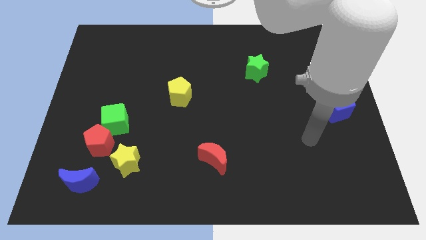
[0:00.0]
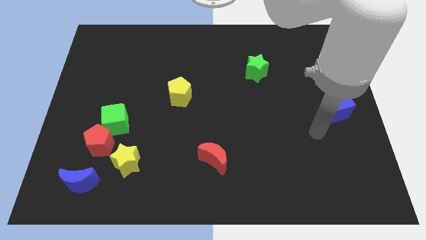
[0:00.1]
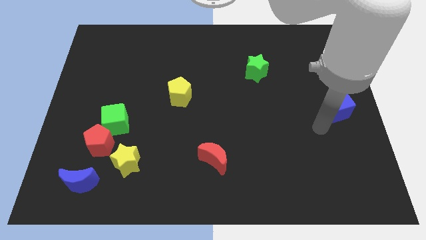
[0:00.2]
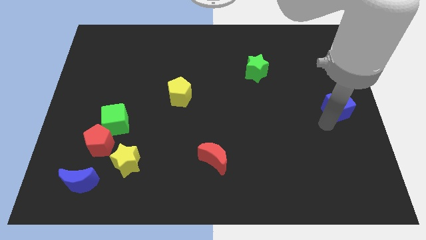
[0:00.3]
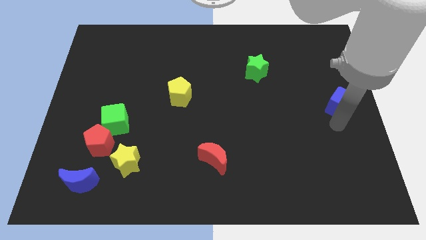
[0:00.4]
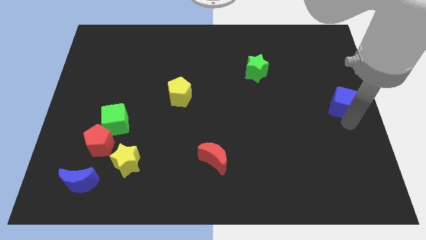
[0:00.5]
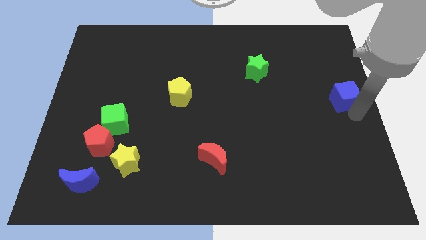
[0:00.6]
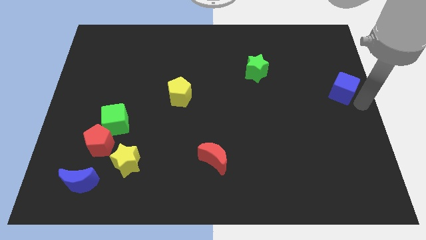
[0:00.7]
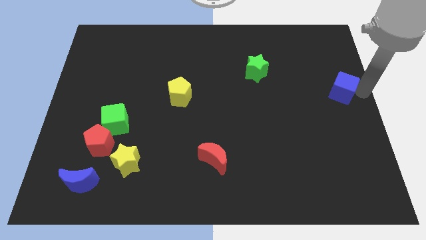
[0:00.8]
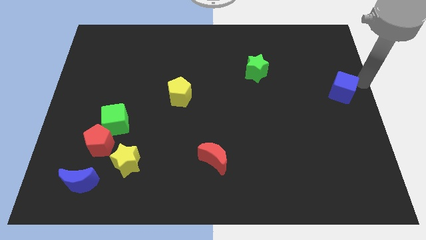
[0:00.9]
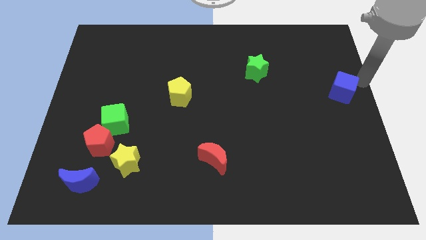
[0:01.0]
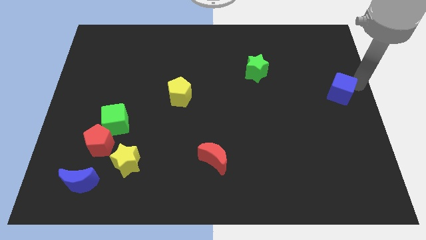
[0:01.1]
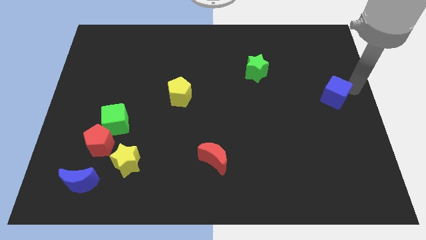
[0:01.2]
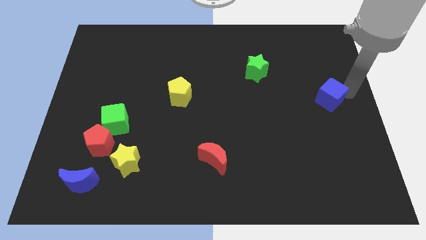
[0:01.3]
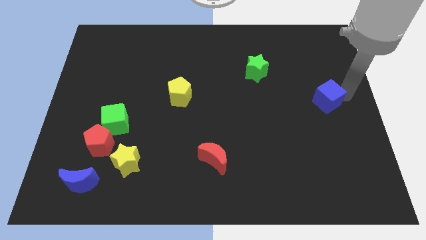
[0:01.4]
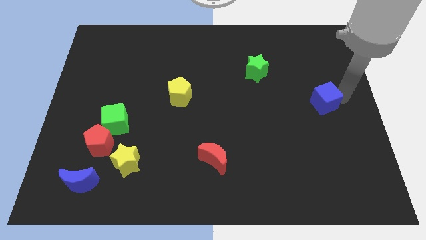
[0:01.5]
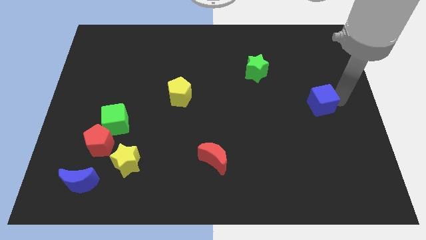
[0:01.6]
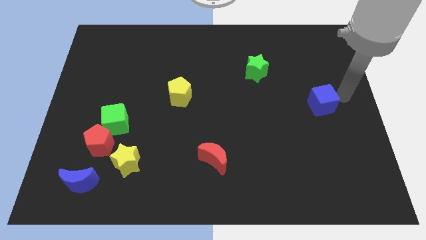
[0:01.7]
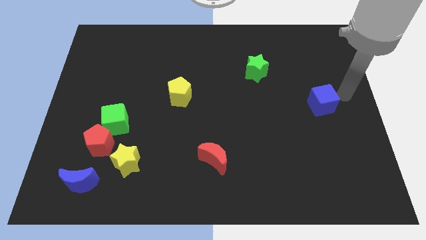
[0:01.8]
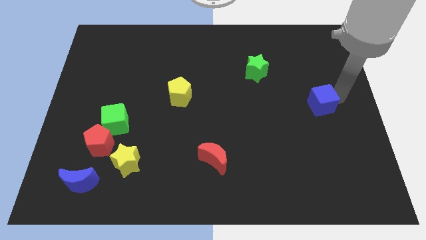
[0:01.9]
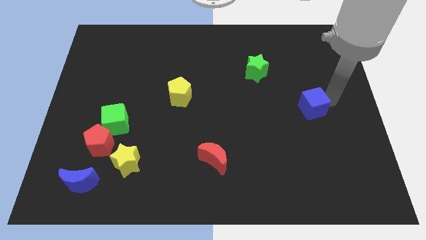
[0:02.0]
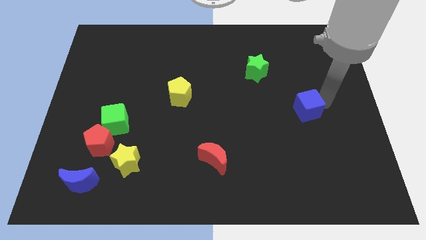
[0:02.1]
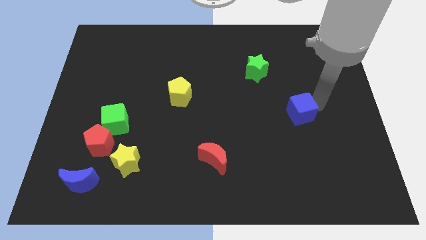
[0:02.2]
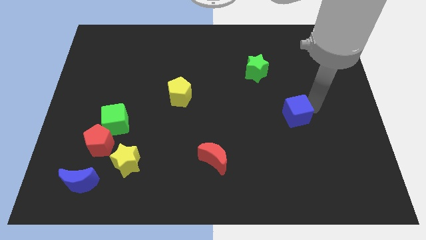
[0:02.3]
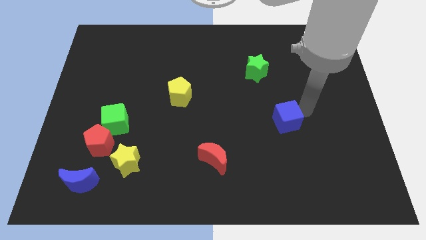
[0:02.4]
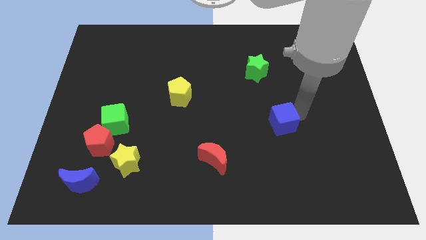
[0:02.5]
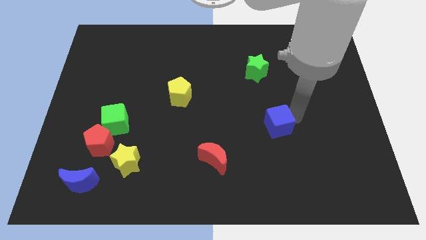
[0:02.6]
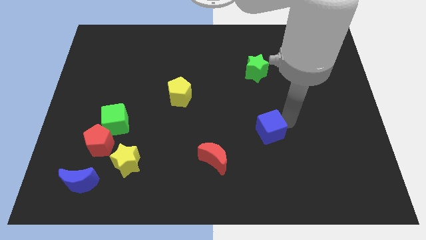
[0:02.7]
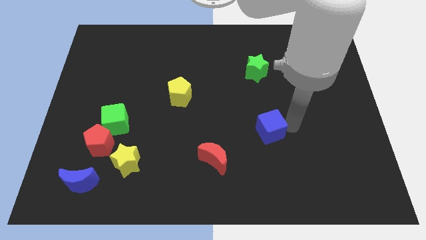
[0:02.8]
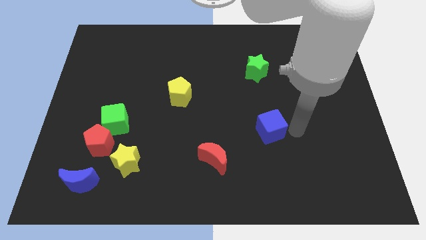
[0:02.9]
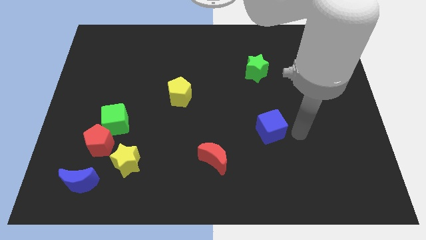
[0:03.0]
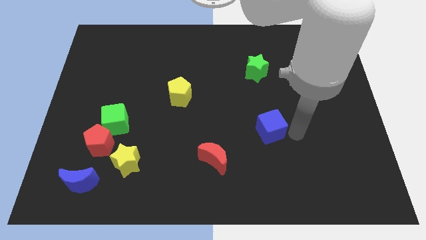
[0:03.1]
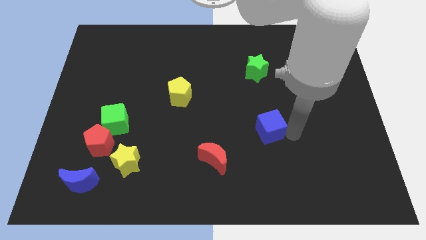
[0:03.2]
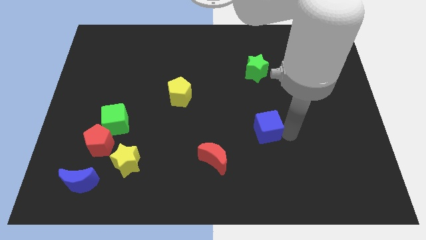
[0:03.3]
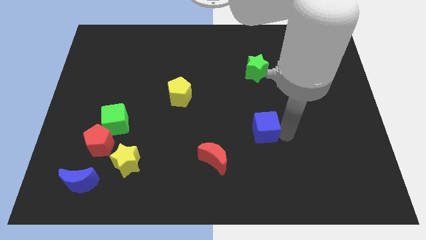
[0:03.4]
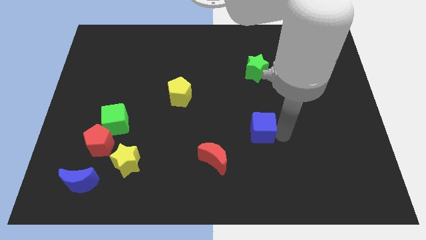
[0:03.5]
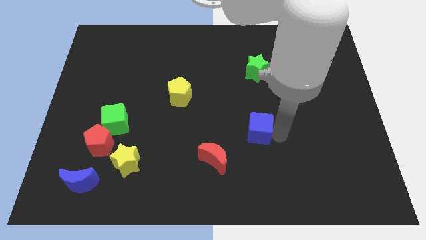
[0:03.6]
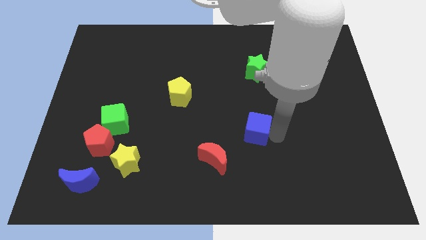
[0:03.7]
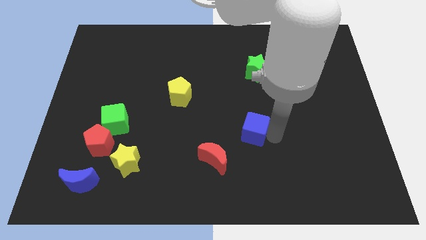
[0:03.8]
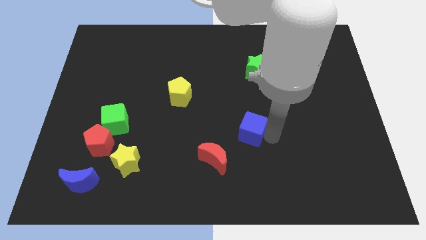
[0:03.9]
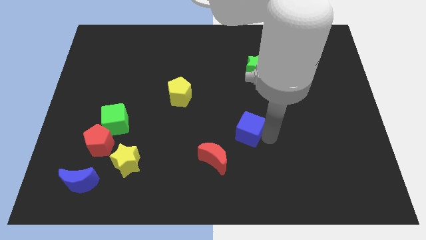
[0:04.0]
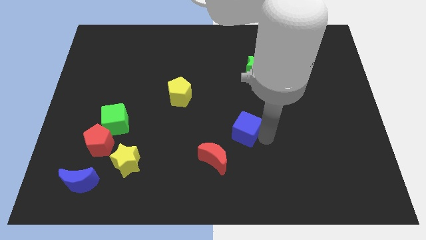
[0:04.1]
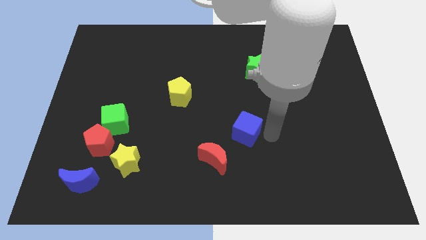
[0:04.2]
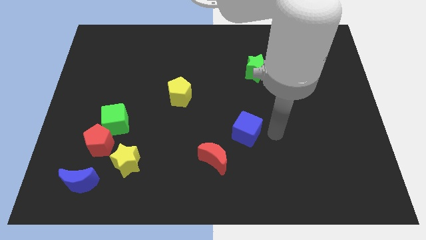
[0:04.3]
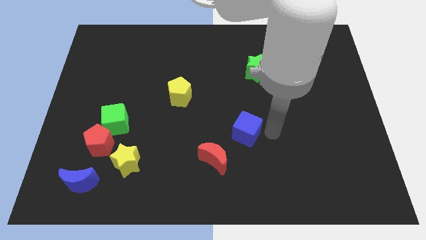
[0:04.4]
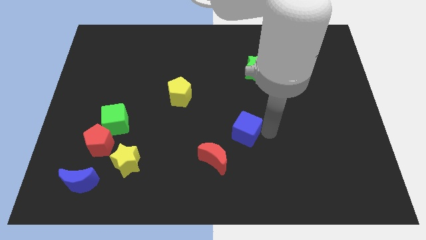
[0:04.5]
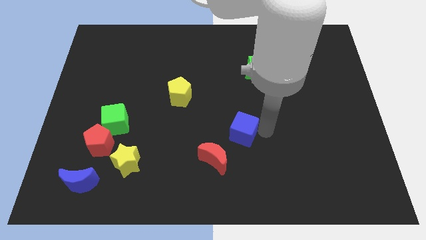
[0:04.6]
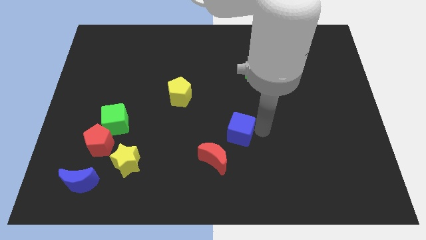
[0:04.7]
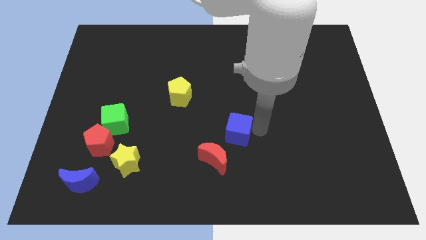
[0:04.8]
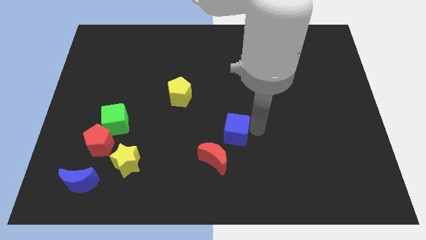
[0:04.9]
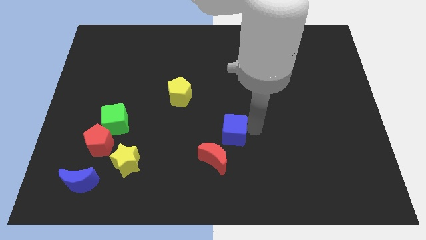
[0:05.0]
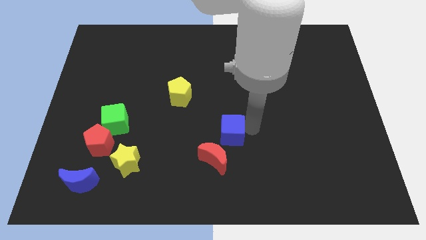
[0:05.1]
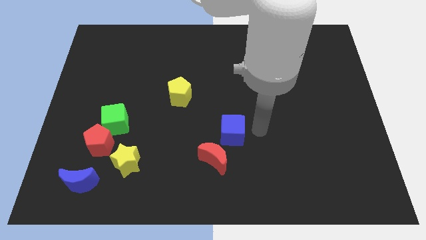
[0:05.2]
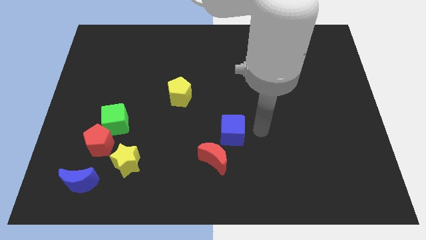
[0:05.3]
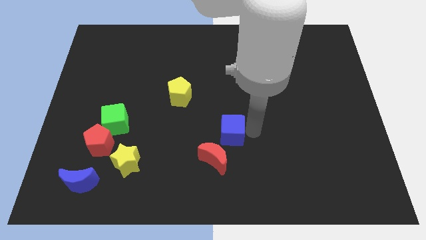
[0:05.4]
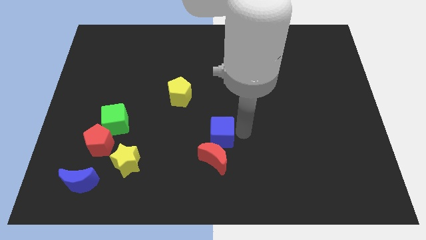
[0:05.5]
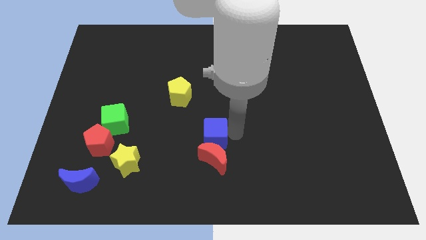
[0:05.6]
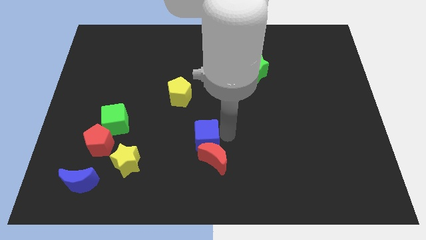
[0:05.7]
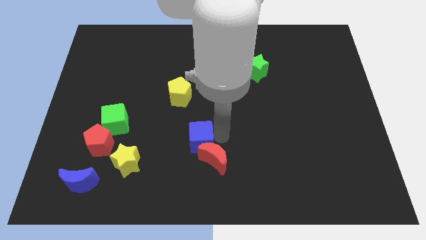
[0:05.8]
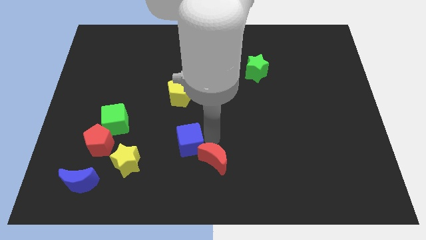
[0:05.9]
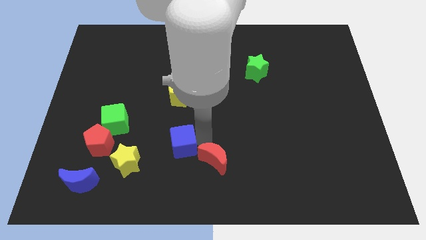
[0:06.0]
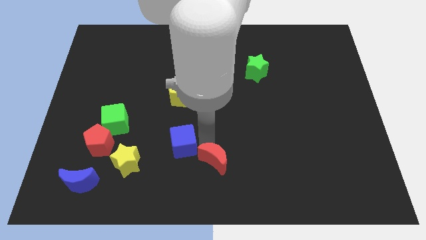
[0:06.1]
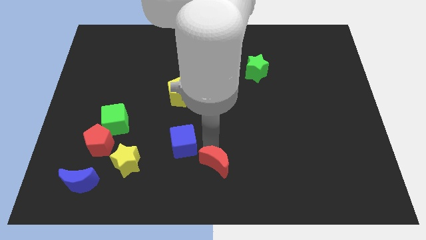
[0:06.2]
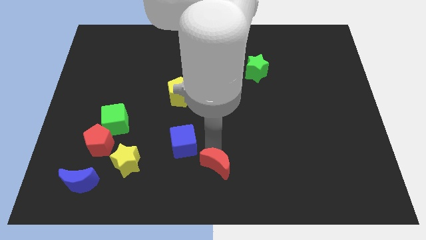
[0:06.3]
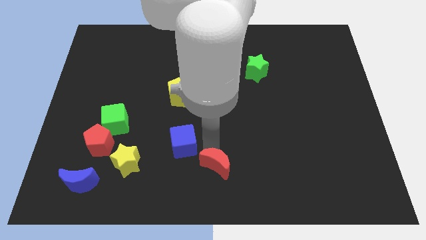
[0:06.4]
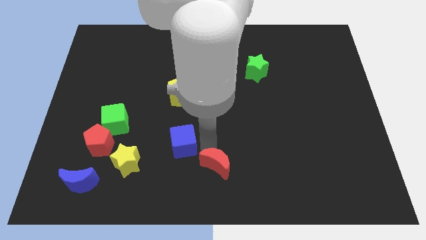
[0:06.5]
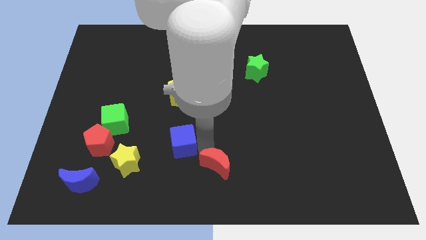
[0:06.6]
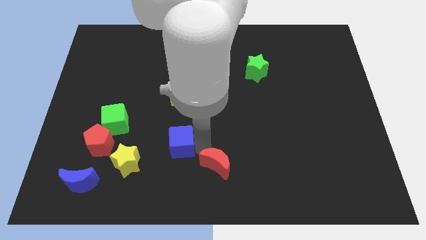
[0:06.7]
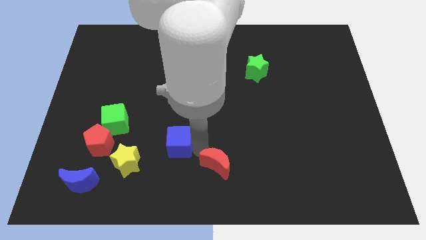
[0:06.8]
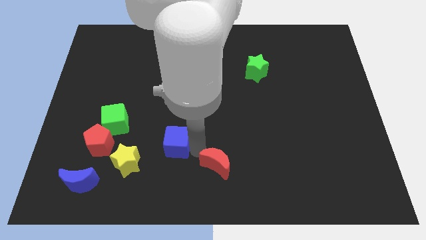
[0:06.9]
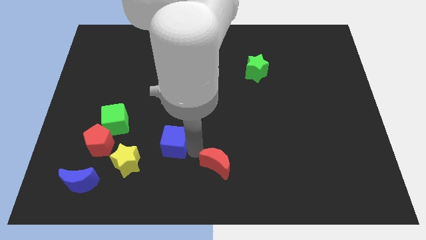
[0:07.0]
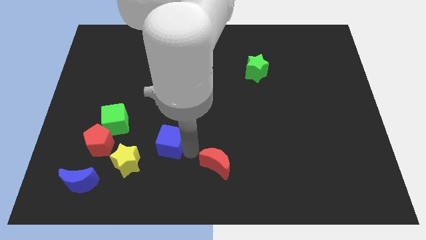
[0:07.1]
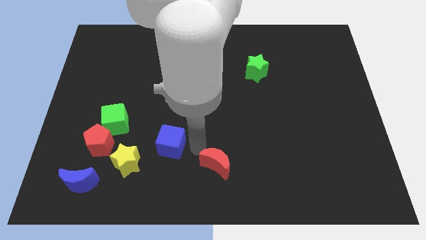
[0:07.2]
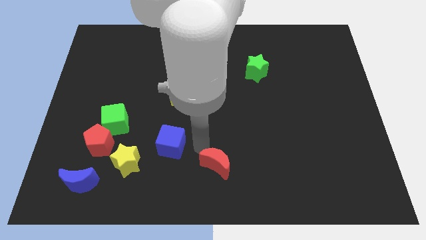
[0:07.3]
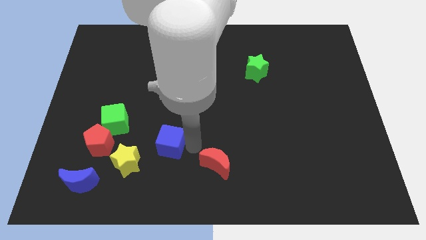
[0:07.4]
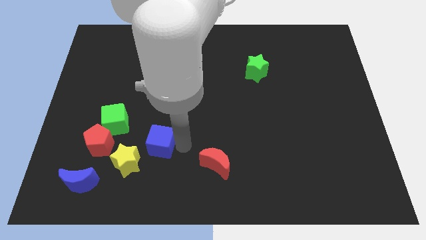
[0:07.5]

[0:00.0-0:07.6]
put the blue cube to the bottom right side of the green cube
